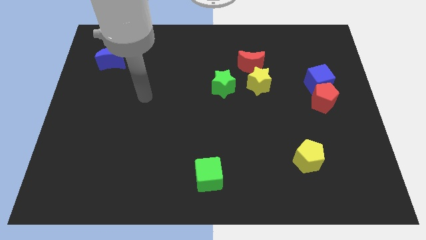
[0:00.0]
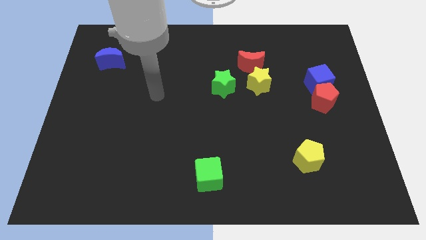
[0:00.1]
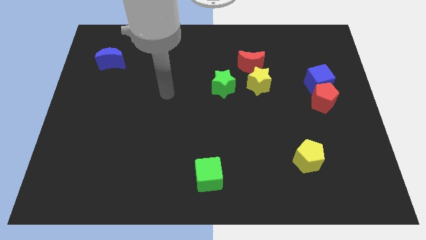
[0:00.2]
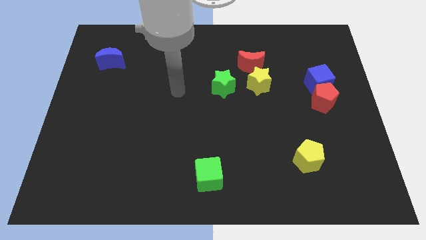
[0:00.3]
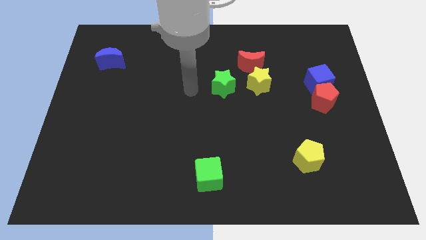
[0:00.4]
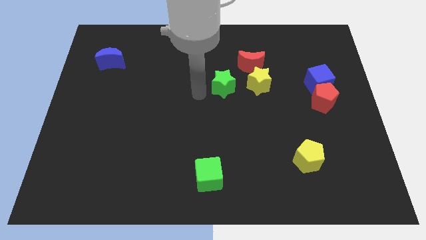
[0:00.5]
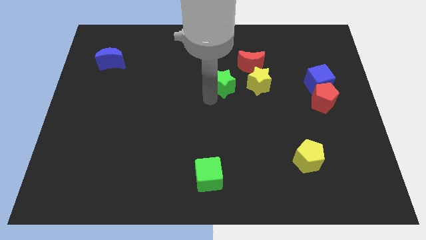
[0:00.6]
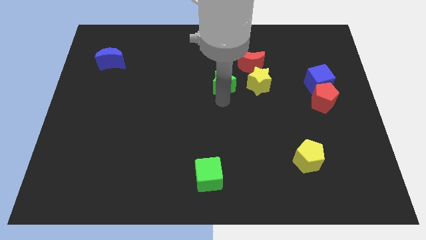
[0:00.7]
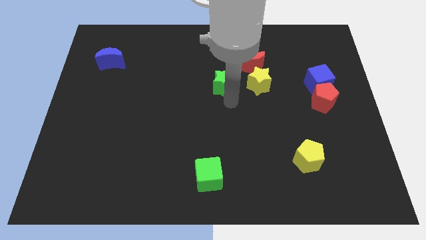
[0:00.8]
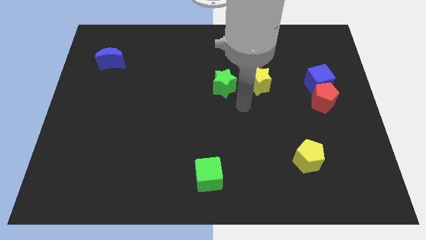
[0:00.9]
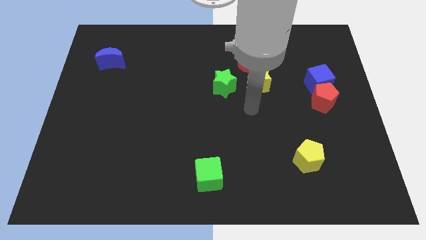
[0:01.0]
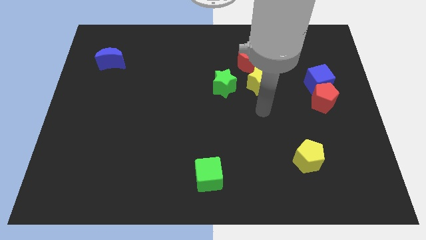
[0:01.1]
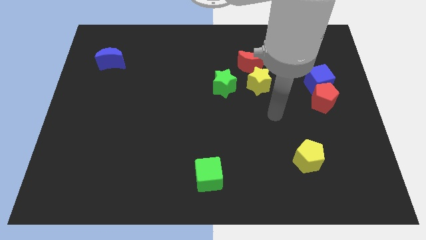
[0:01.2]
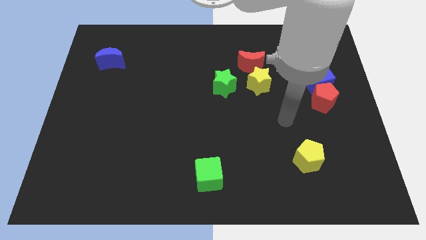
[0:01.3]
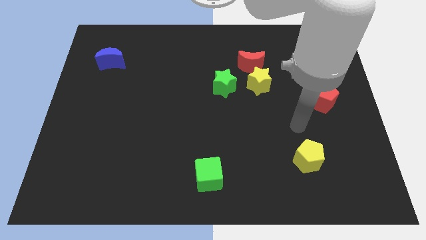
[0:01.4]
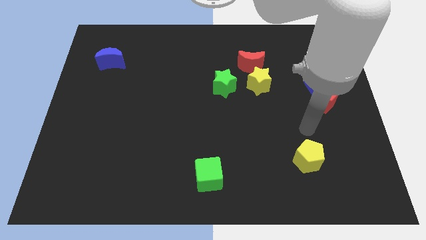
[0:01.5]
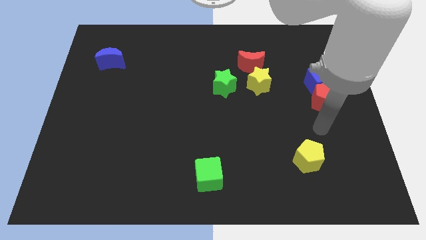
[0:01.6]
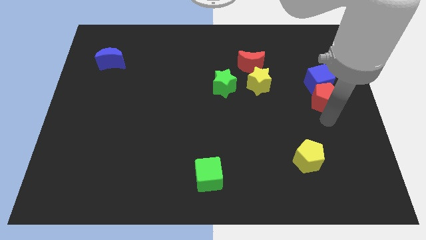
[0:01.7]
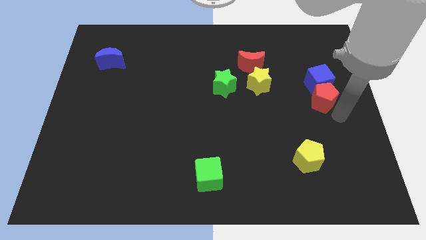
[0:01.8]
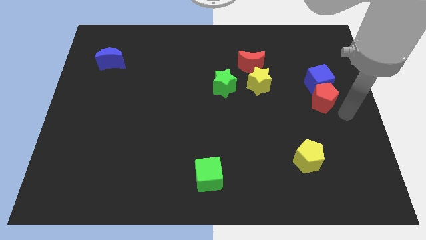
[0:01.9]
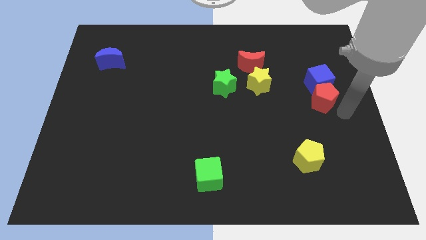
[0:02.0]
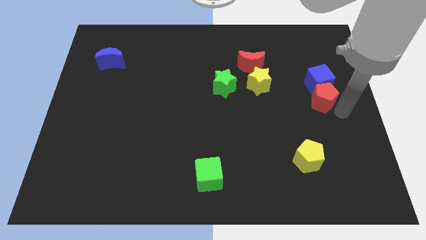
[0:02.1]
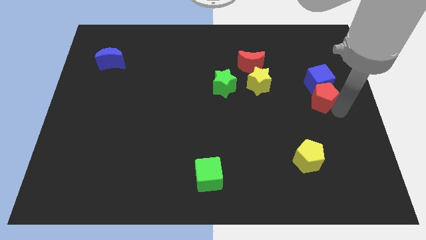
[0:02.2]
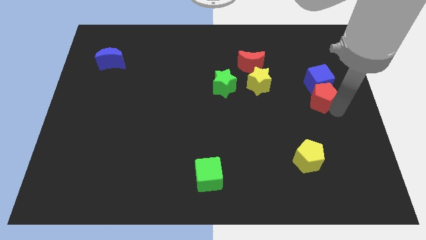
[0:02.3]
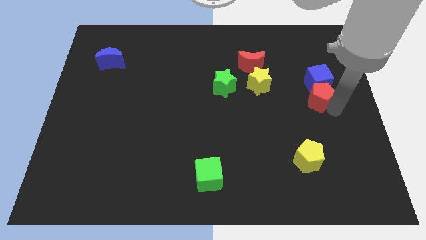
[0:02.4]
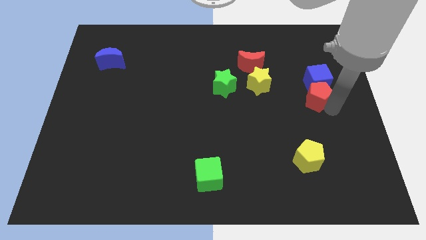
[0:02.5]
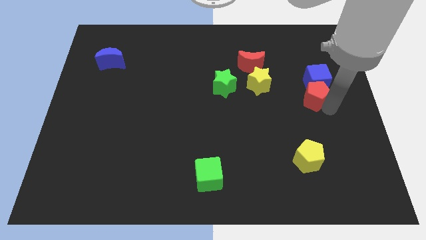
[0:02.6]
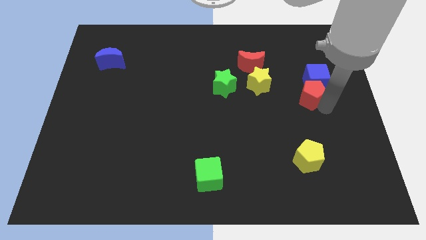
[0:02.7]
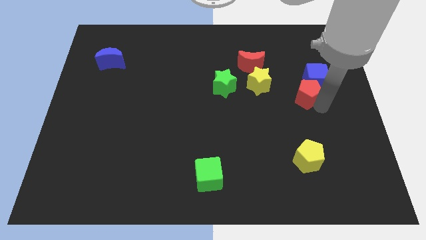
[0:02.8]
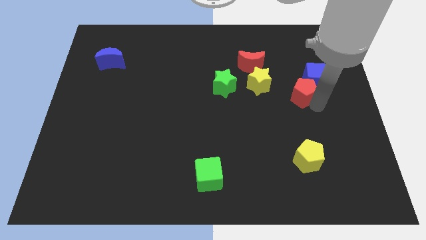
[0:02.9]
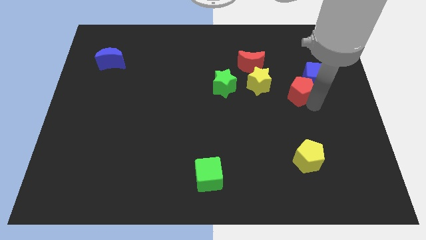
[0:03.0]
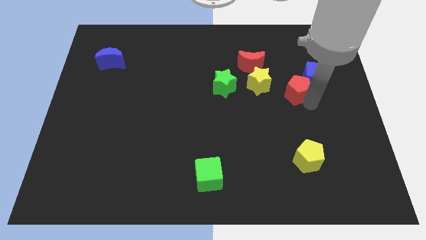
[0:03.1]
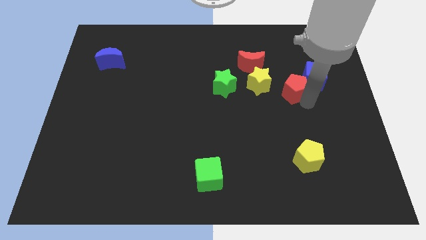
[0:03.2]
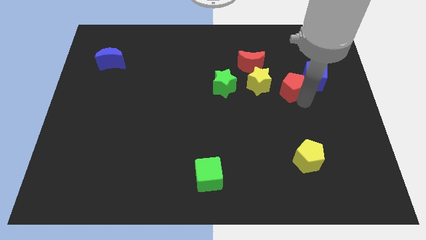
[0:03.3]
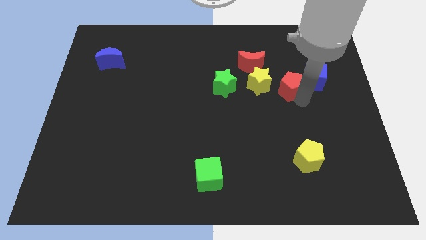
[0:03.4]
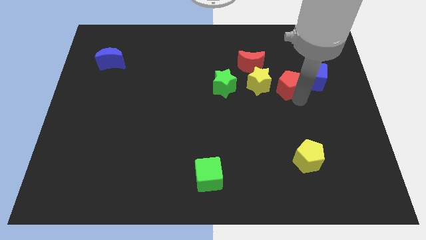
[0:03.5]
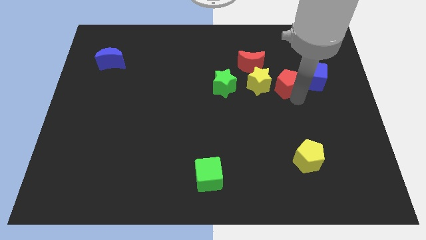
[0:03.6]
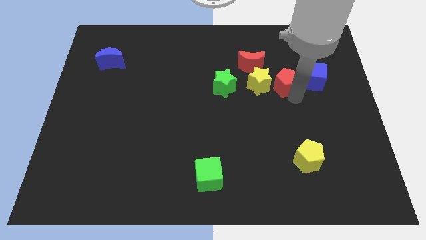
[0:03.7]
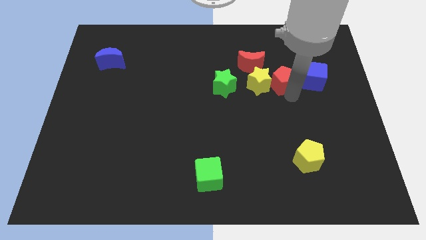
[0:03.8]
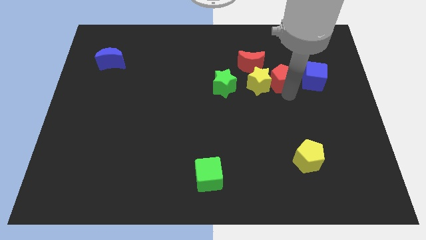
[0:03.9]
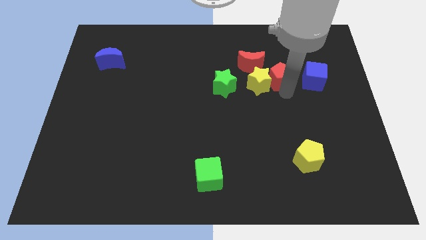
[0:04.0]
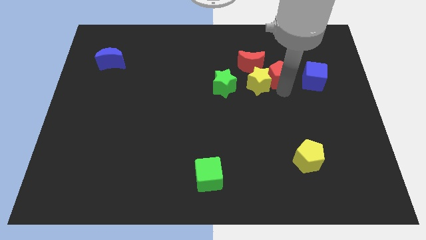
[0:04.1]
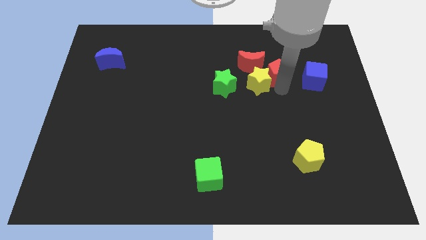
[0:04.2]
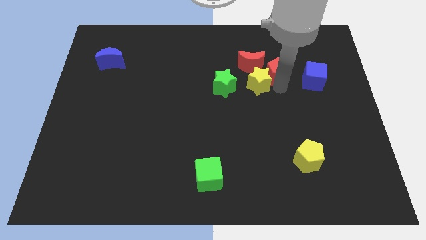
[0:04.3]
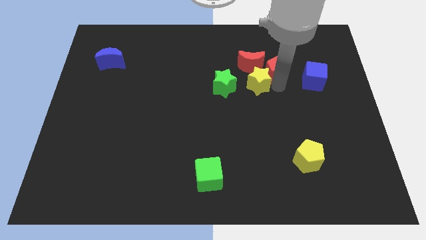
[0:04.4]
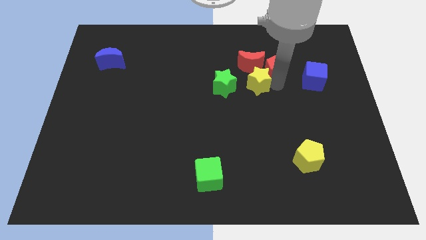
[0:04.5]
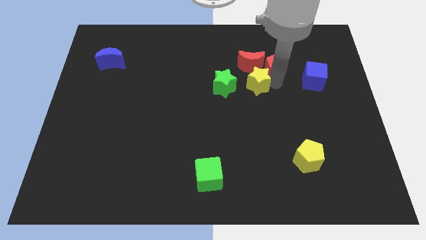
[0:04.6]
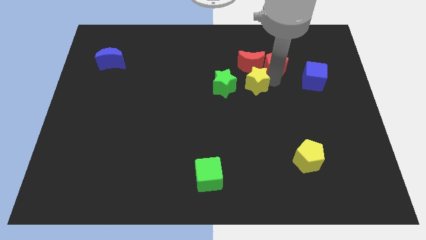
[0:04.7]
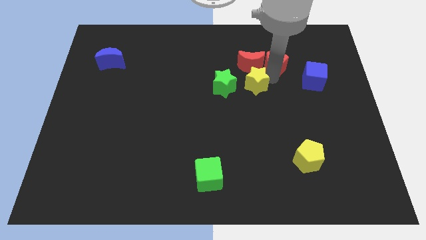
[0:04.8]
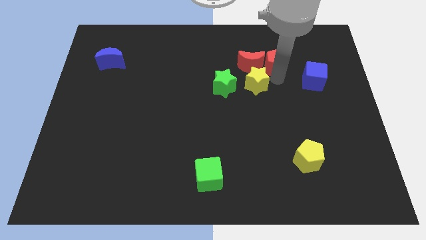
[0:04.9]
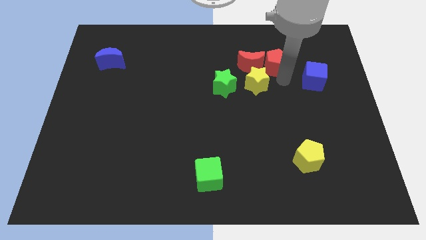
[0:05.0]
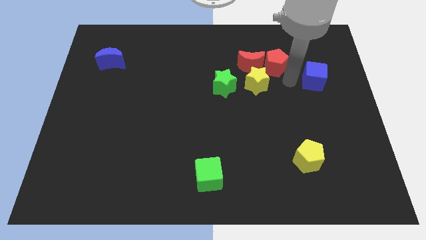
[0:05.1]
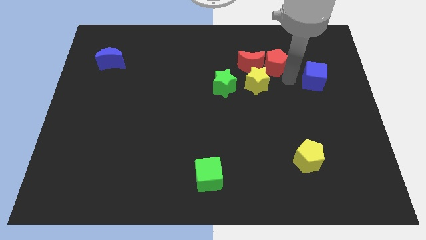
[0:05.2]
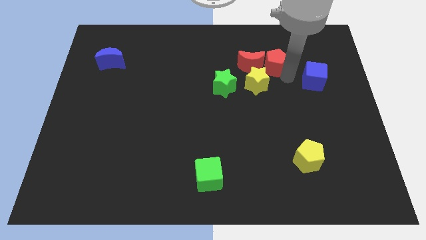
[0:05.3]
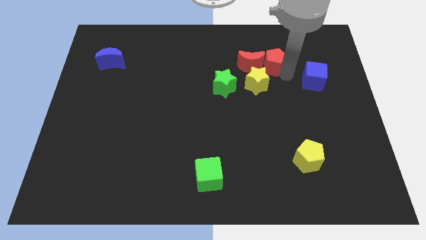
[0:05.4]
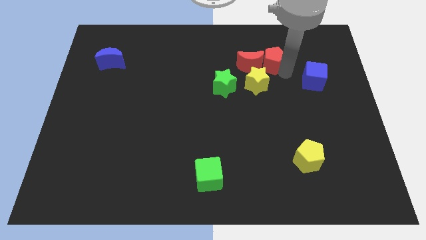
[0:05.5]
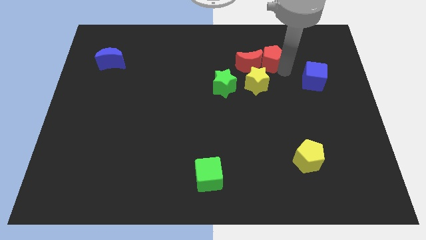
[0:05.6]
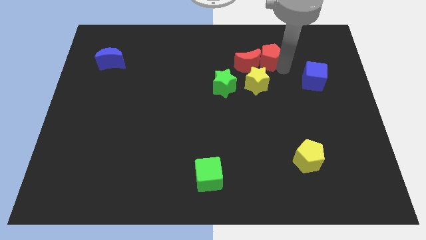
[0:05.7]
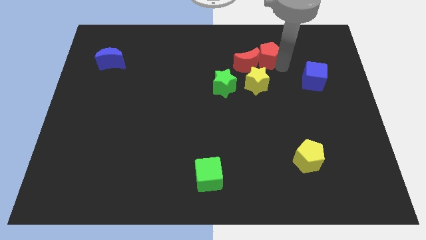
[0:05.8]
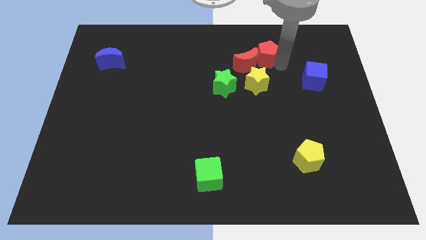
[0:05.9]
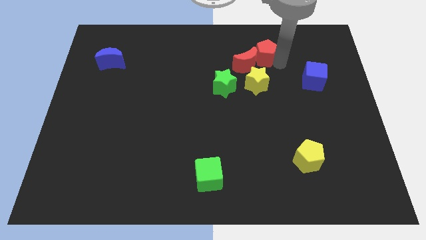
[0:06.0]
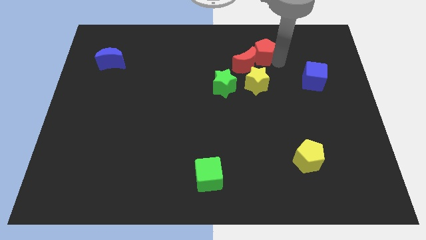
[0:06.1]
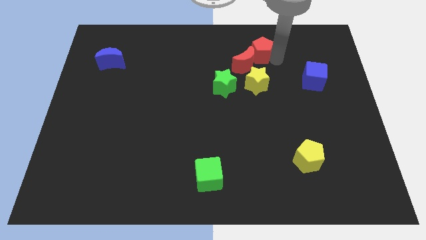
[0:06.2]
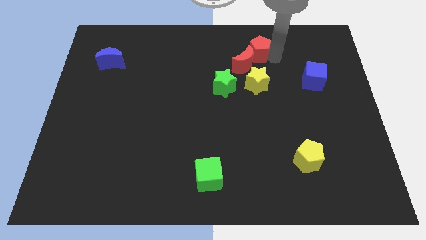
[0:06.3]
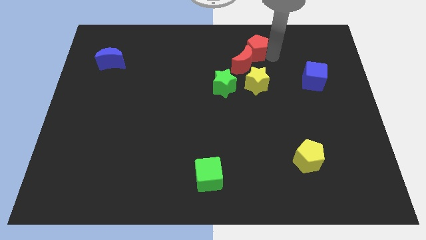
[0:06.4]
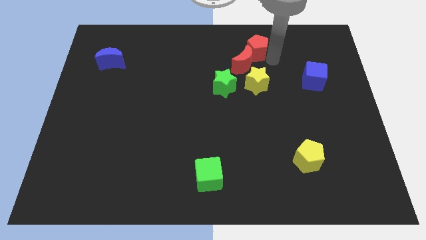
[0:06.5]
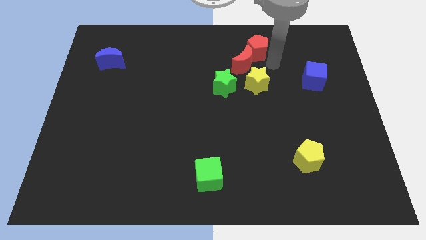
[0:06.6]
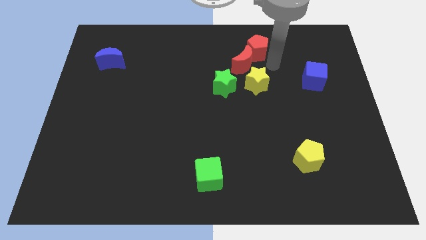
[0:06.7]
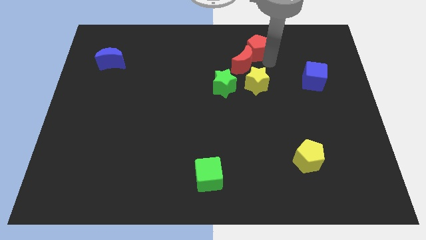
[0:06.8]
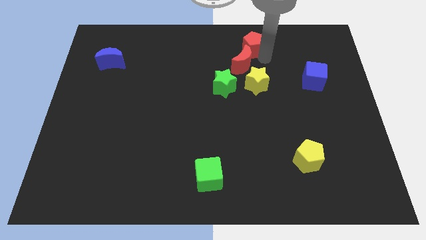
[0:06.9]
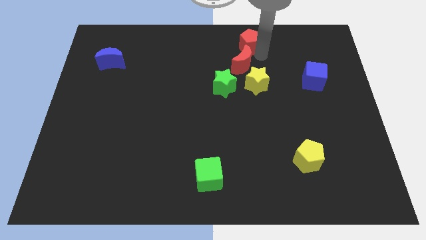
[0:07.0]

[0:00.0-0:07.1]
slide the red pentagon to the top
